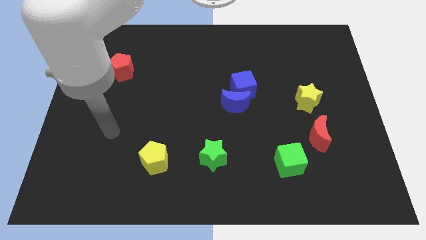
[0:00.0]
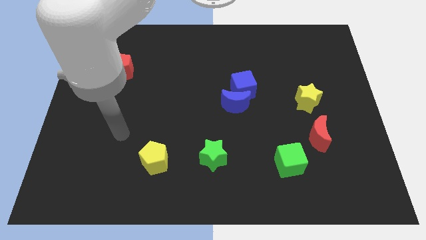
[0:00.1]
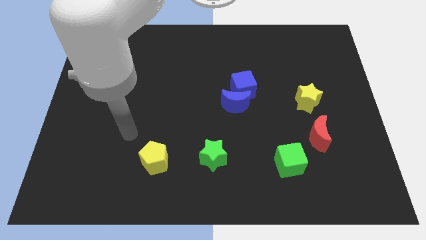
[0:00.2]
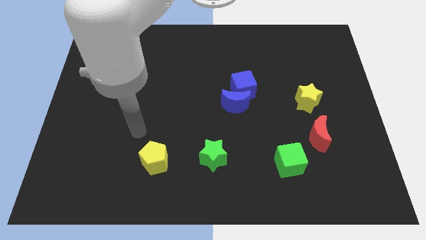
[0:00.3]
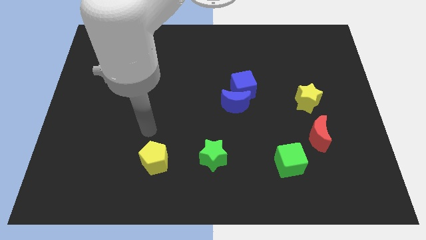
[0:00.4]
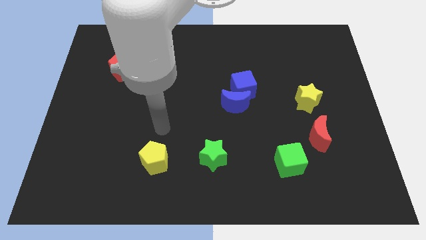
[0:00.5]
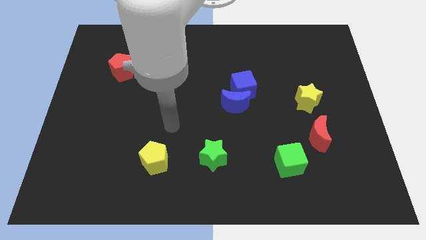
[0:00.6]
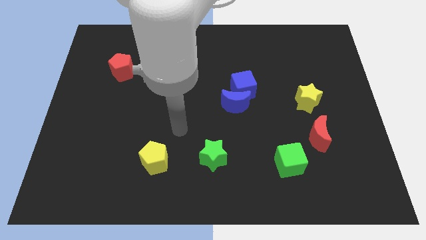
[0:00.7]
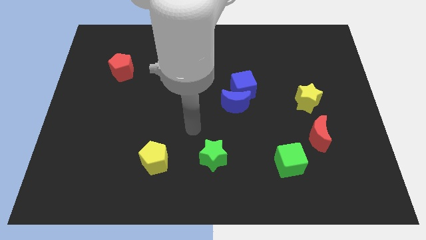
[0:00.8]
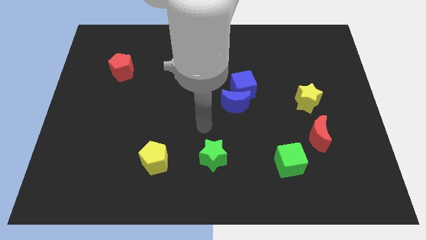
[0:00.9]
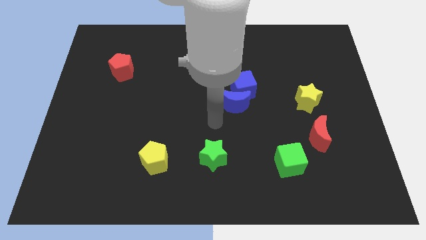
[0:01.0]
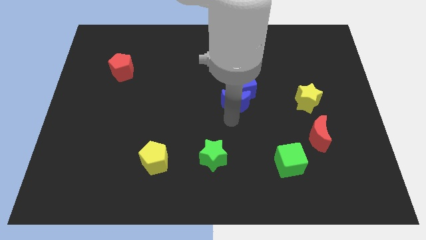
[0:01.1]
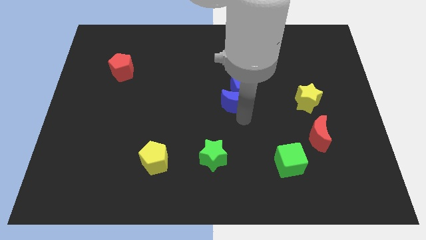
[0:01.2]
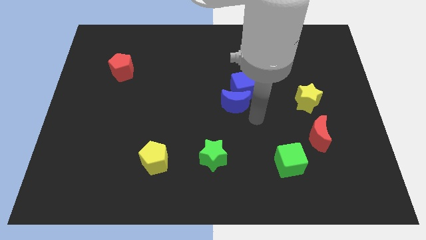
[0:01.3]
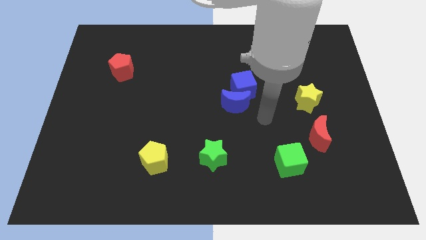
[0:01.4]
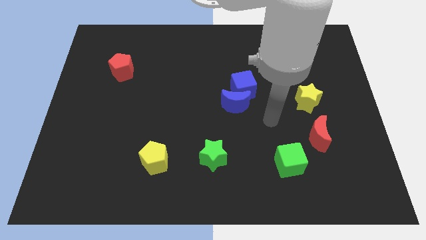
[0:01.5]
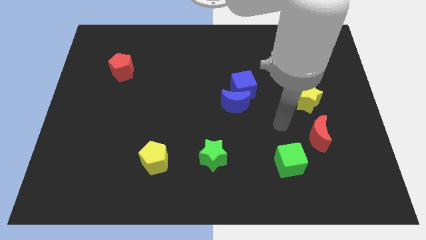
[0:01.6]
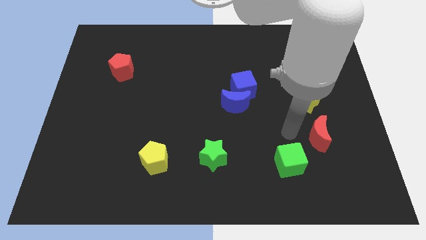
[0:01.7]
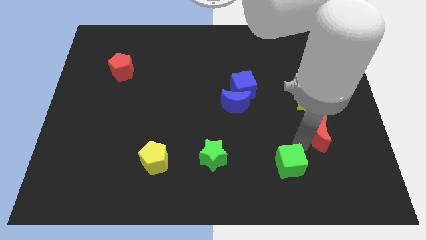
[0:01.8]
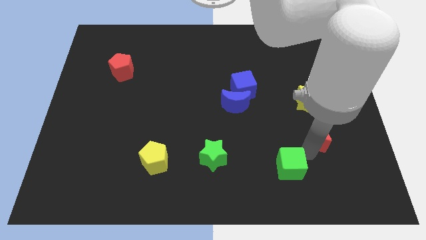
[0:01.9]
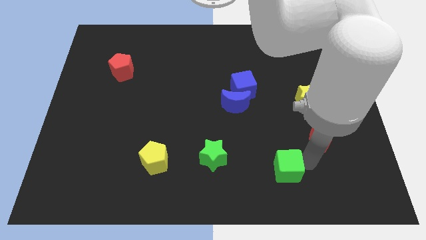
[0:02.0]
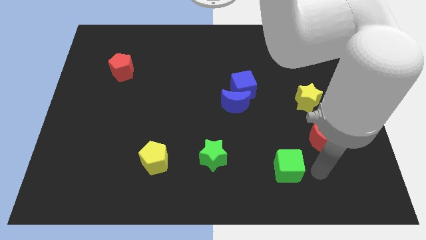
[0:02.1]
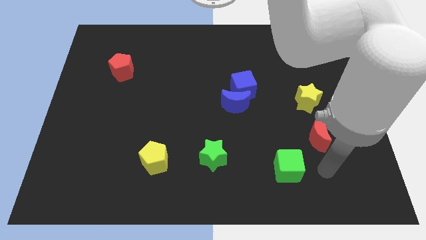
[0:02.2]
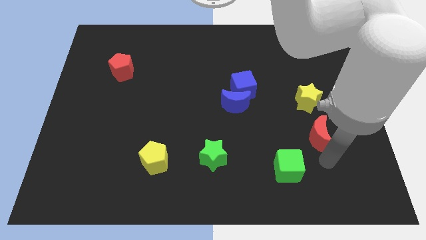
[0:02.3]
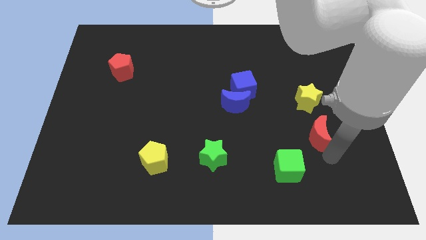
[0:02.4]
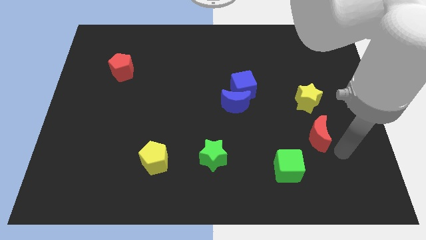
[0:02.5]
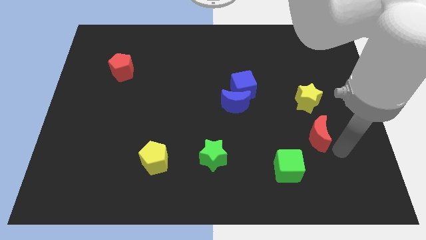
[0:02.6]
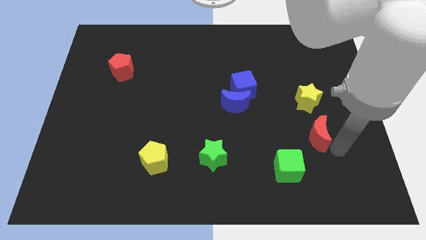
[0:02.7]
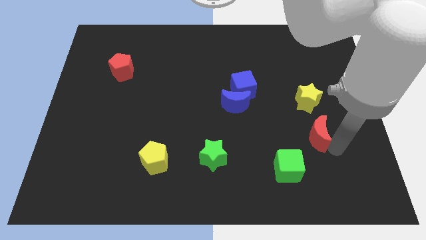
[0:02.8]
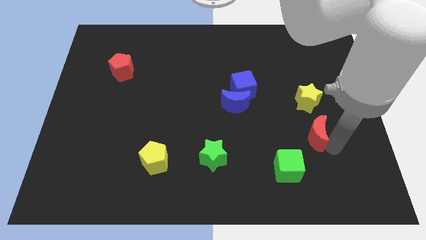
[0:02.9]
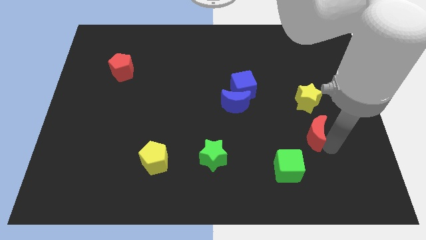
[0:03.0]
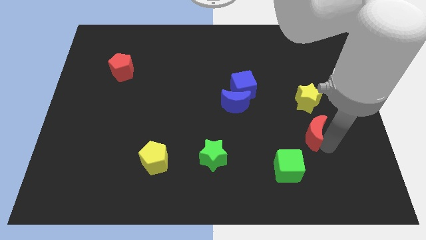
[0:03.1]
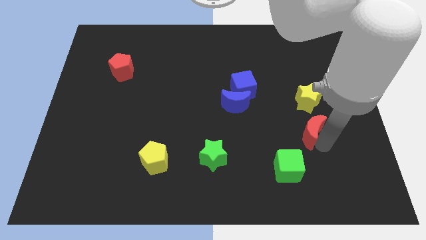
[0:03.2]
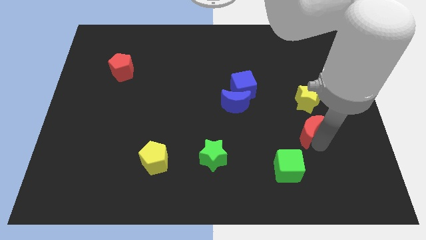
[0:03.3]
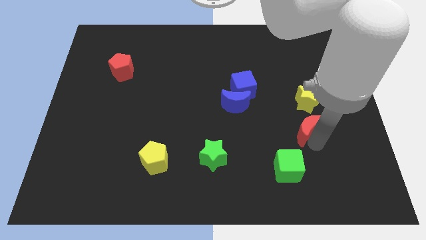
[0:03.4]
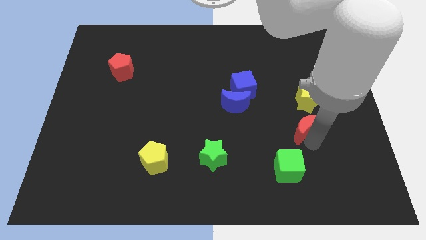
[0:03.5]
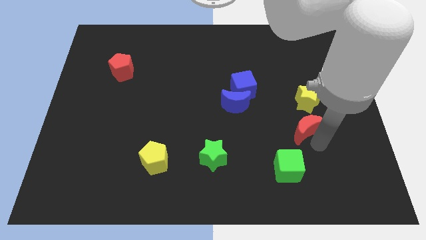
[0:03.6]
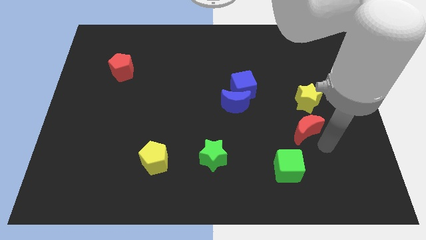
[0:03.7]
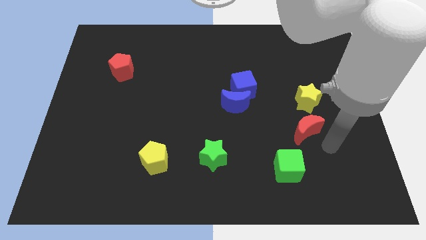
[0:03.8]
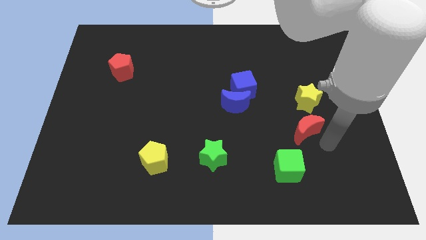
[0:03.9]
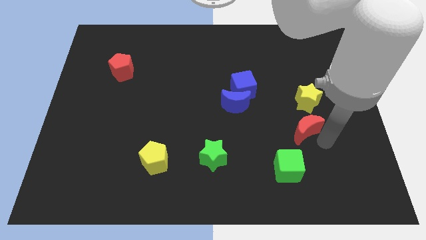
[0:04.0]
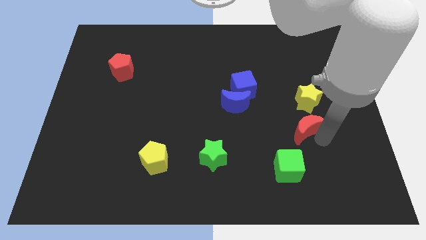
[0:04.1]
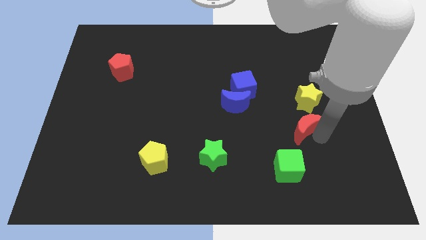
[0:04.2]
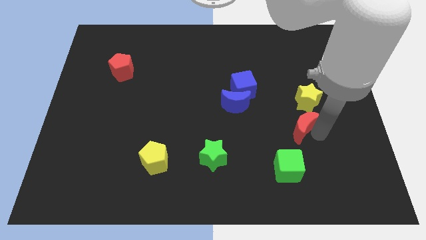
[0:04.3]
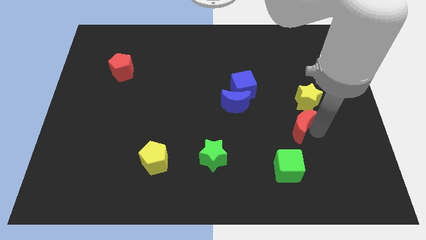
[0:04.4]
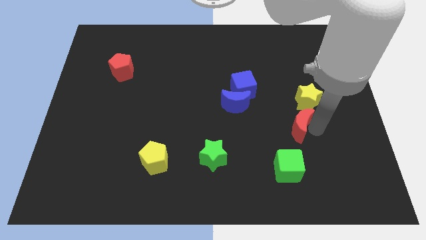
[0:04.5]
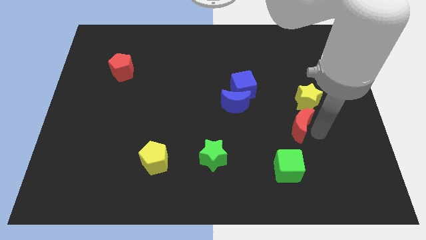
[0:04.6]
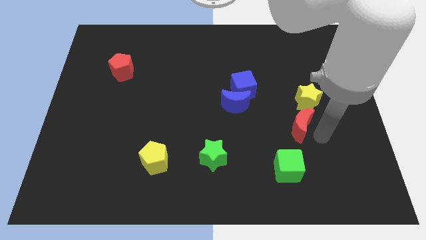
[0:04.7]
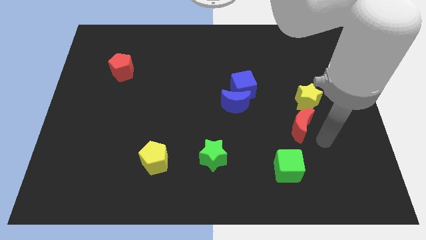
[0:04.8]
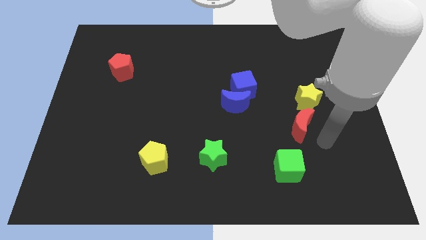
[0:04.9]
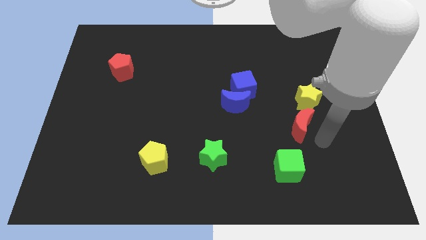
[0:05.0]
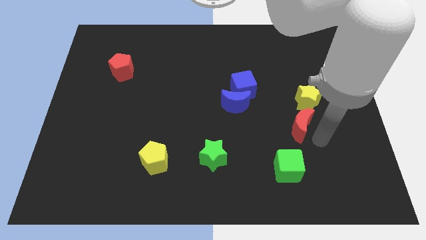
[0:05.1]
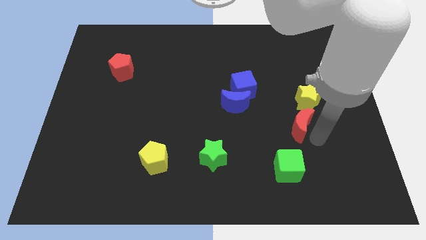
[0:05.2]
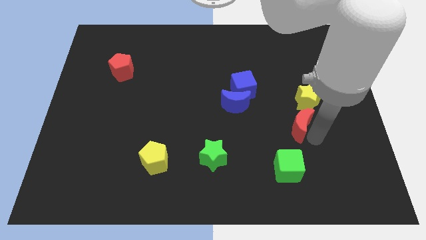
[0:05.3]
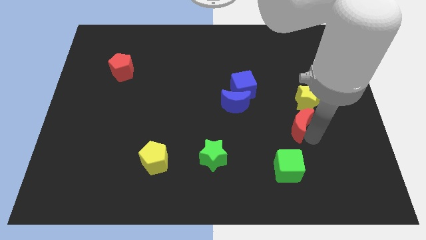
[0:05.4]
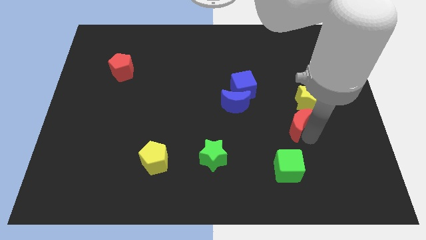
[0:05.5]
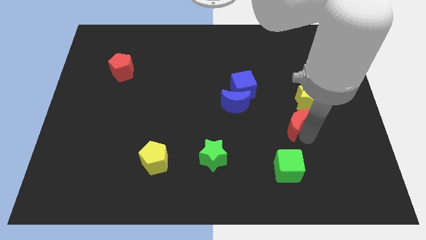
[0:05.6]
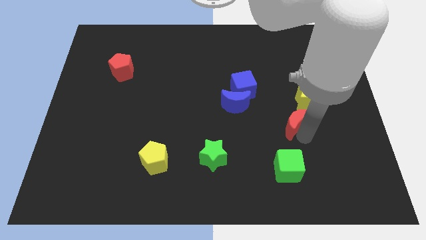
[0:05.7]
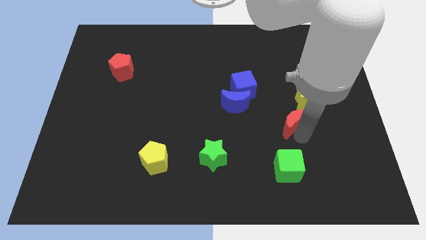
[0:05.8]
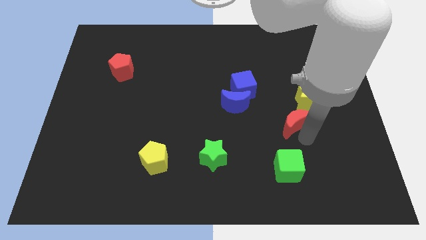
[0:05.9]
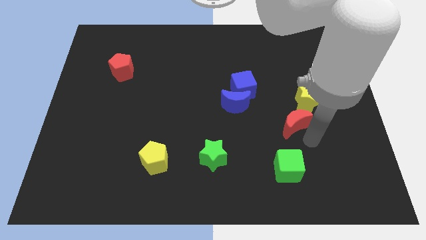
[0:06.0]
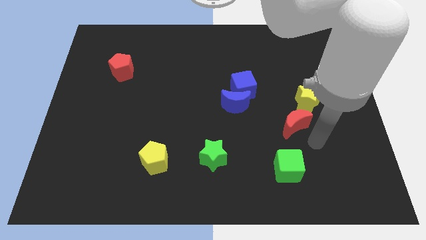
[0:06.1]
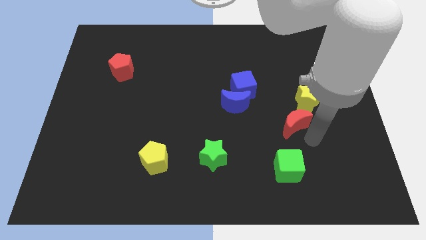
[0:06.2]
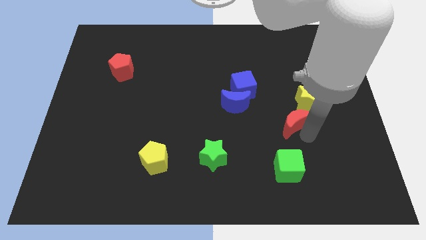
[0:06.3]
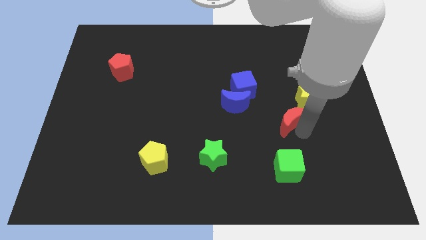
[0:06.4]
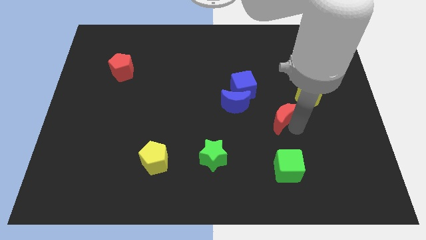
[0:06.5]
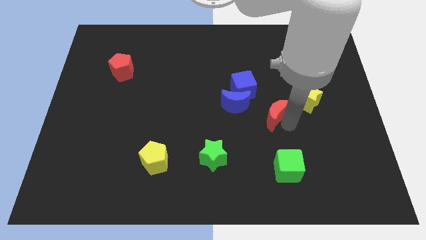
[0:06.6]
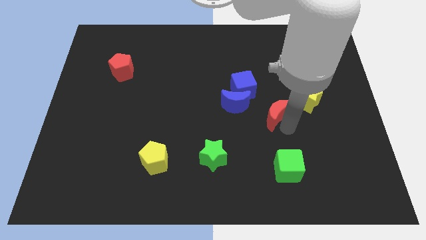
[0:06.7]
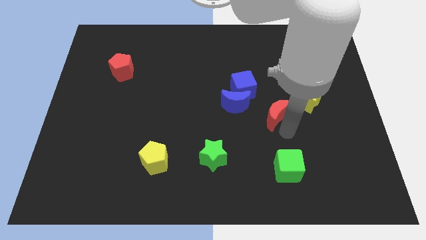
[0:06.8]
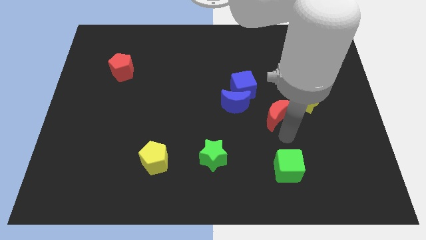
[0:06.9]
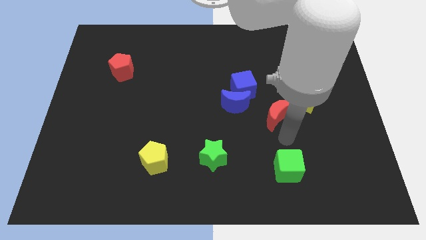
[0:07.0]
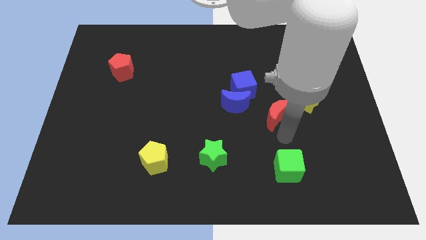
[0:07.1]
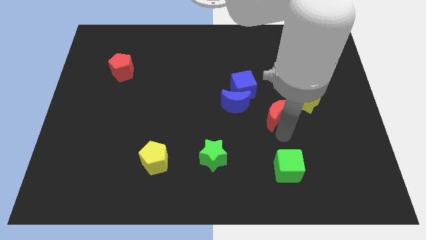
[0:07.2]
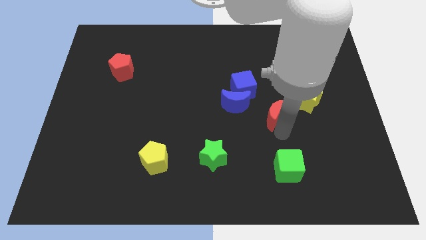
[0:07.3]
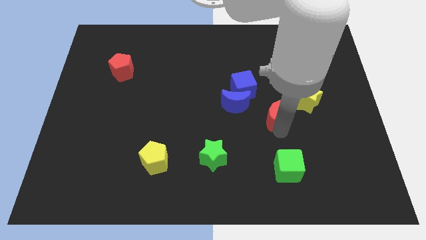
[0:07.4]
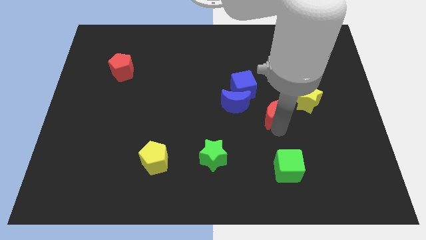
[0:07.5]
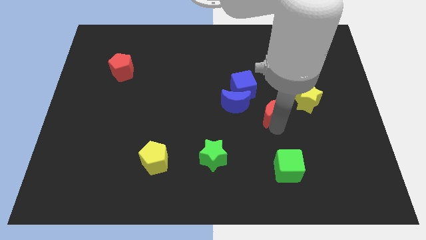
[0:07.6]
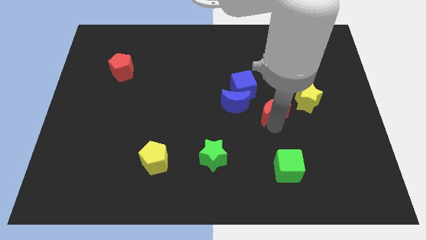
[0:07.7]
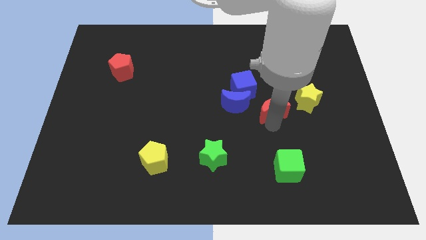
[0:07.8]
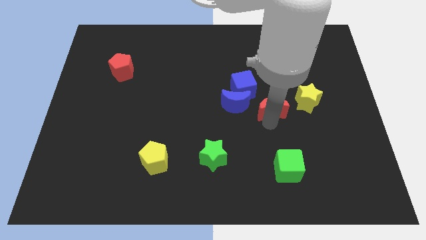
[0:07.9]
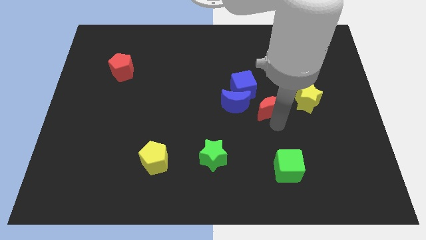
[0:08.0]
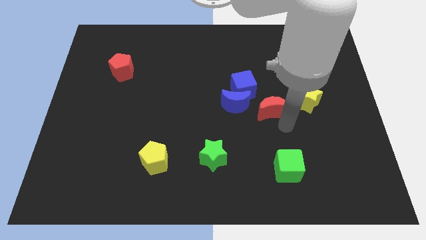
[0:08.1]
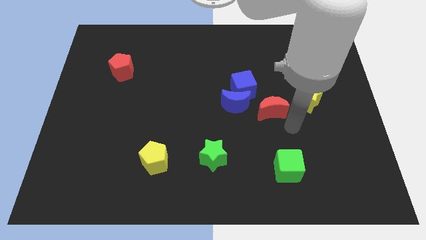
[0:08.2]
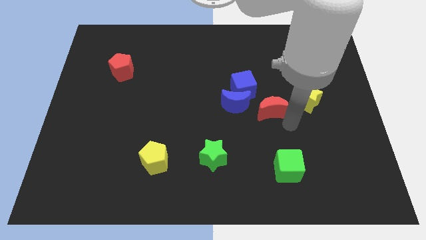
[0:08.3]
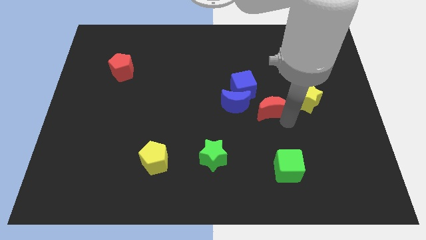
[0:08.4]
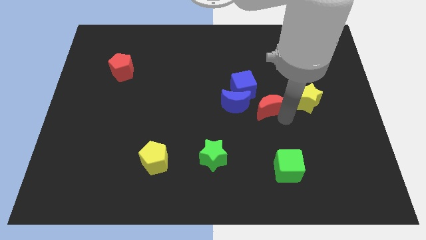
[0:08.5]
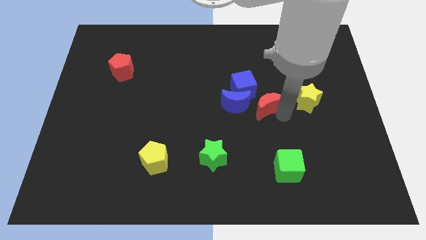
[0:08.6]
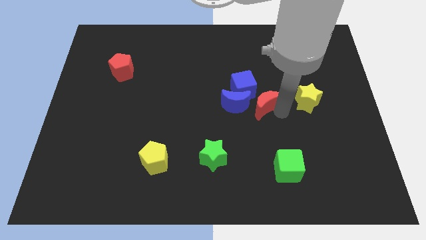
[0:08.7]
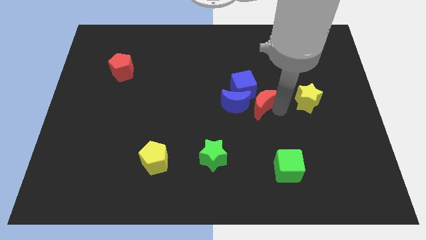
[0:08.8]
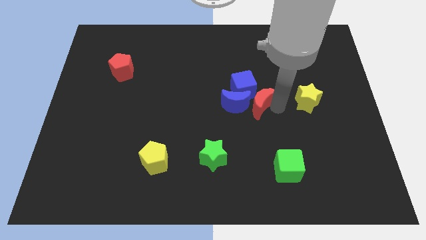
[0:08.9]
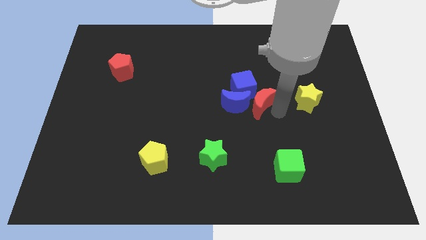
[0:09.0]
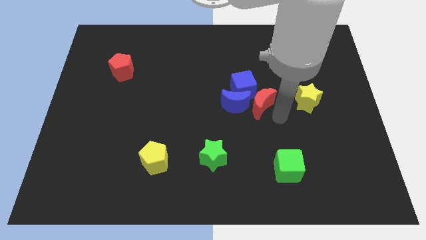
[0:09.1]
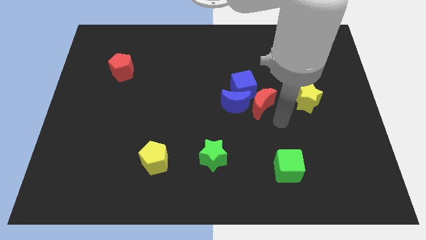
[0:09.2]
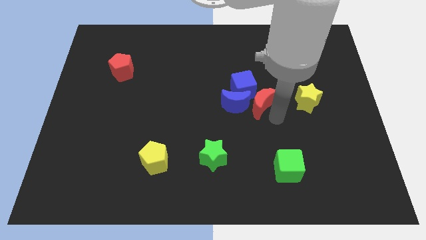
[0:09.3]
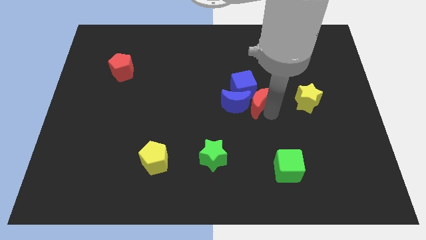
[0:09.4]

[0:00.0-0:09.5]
slide the red moon to the blue cube
